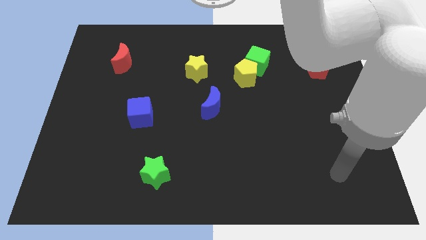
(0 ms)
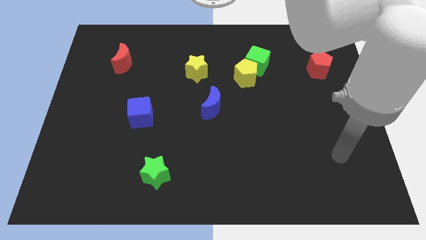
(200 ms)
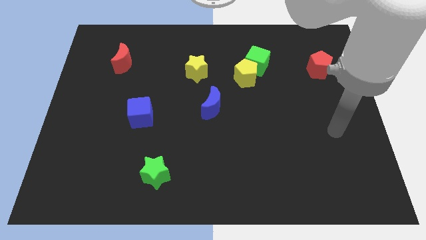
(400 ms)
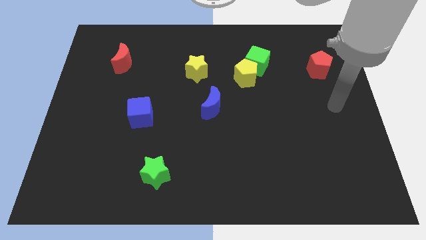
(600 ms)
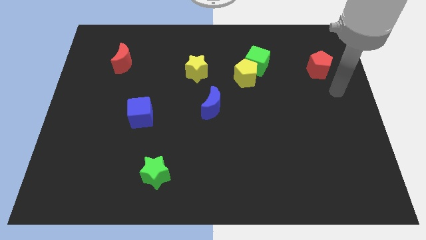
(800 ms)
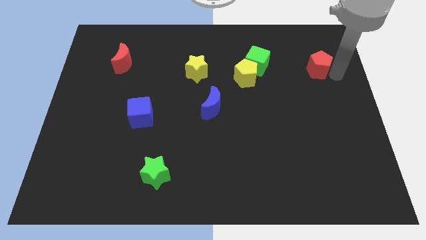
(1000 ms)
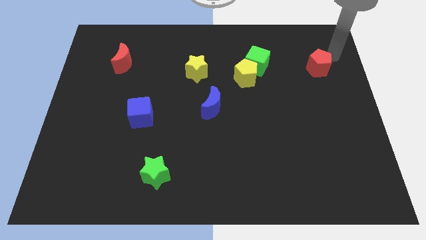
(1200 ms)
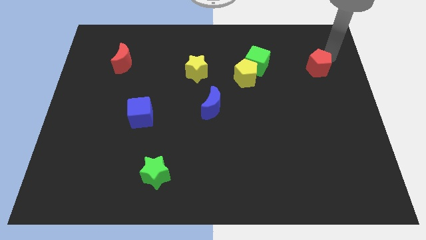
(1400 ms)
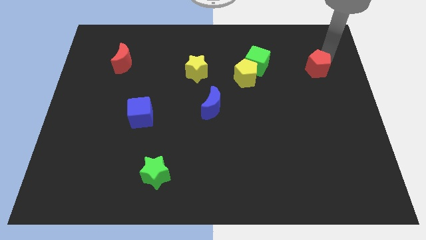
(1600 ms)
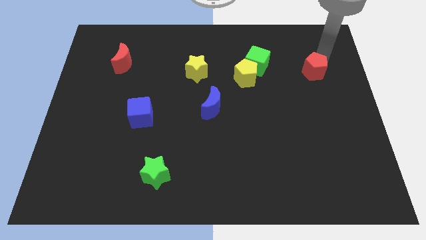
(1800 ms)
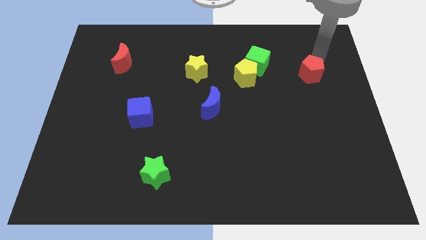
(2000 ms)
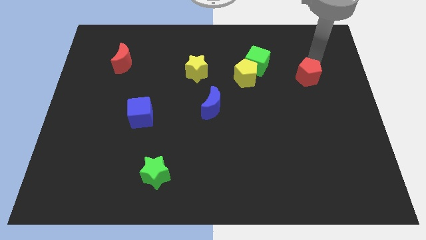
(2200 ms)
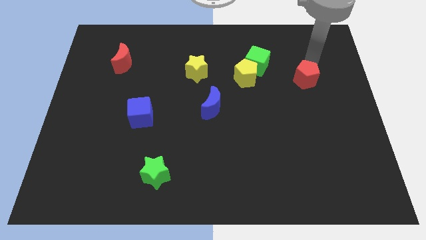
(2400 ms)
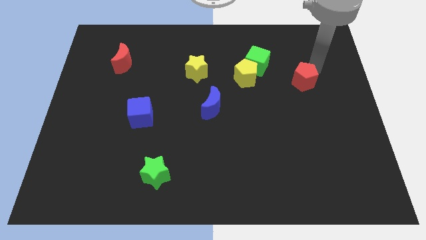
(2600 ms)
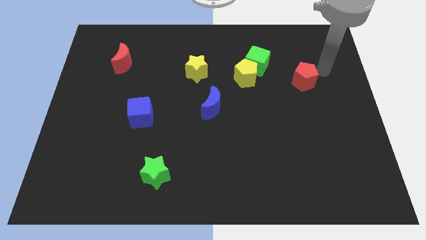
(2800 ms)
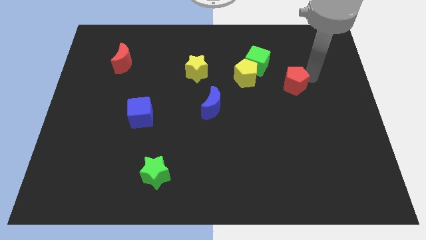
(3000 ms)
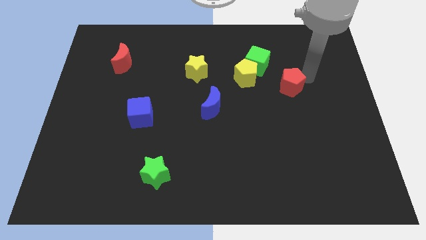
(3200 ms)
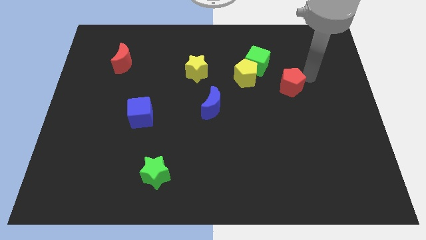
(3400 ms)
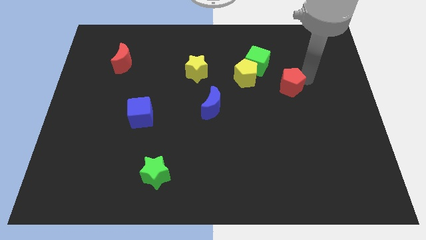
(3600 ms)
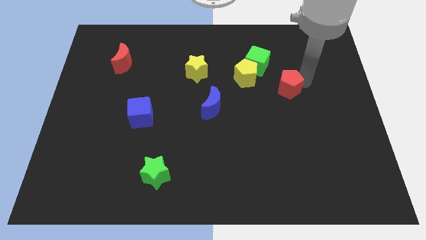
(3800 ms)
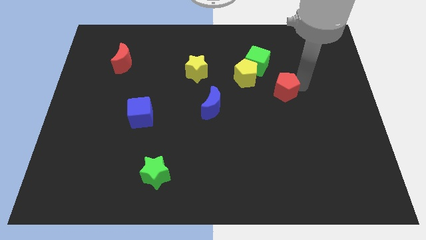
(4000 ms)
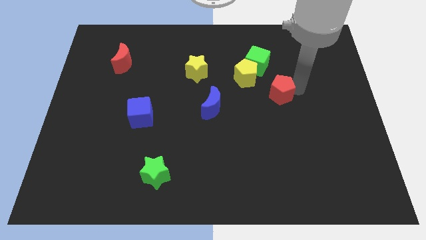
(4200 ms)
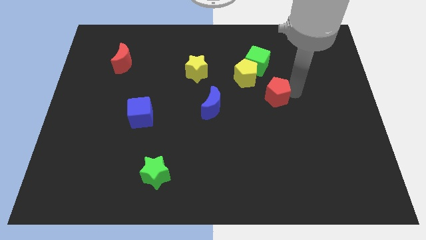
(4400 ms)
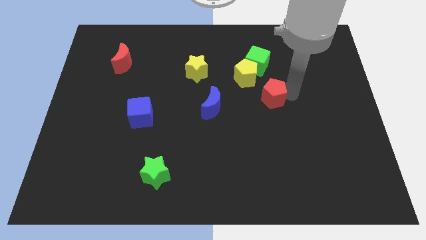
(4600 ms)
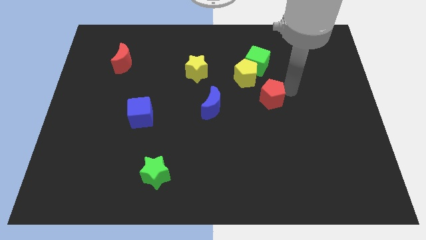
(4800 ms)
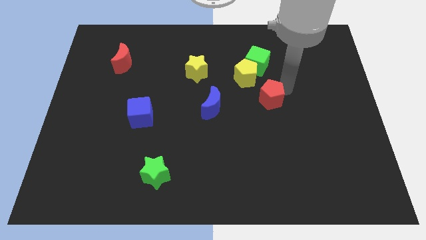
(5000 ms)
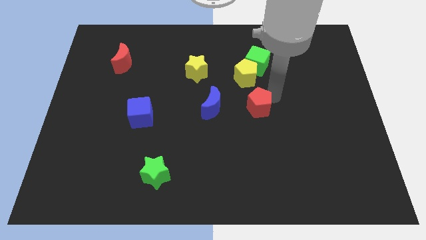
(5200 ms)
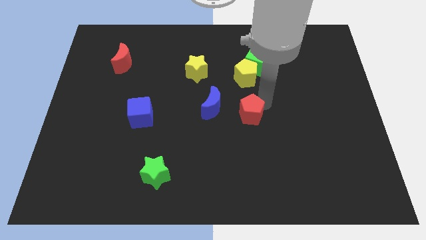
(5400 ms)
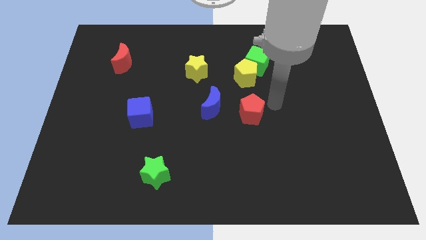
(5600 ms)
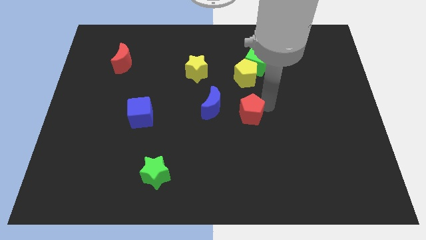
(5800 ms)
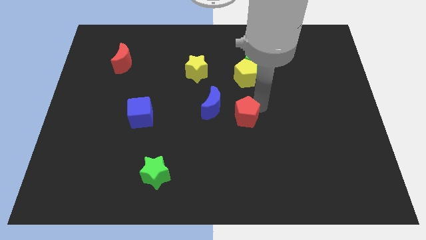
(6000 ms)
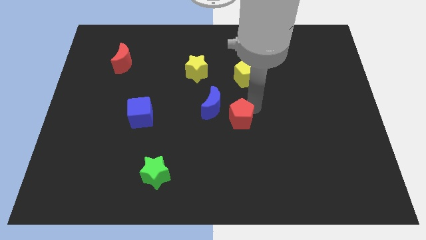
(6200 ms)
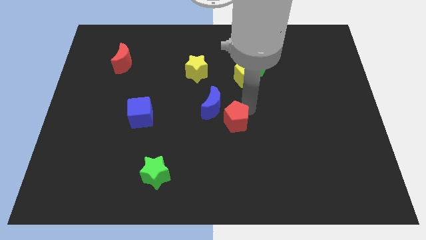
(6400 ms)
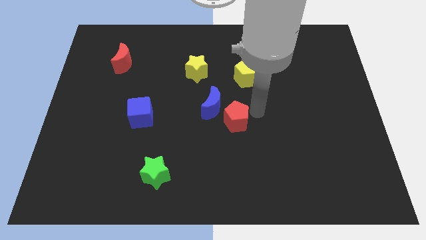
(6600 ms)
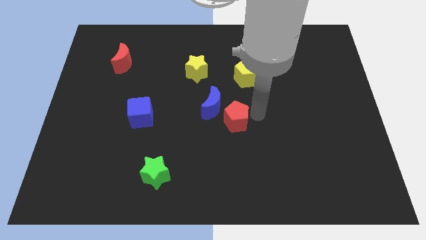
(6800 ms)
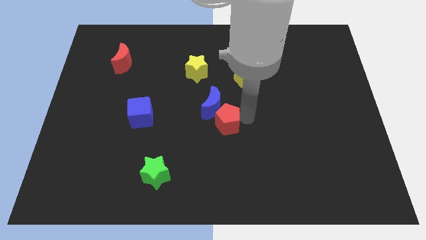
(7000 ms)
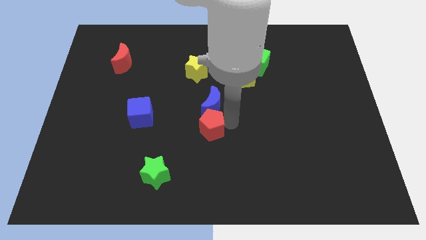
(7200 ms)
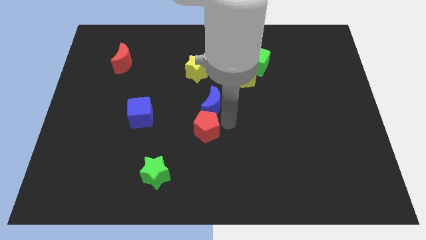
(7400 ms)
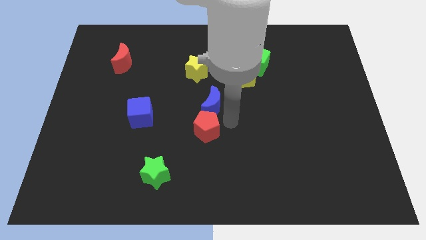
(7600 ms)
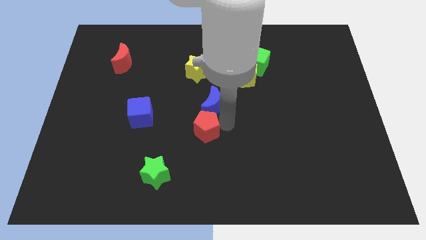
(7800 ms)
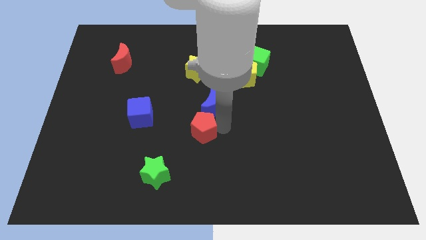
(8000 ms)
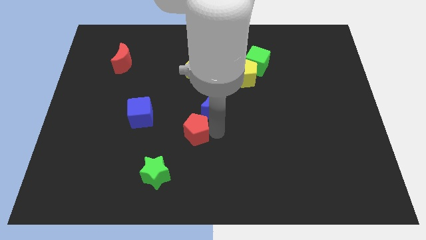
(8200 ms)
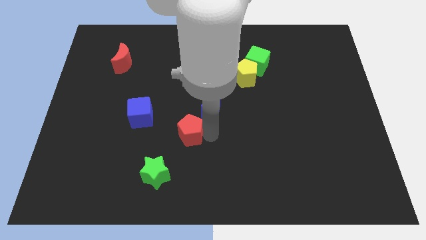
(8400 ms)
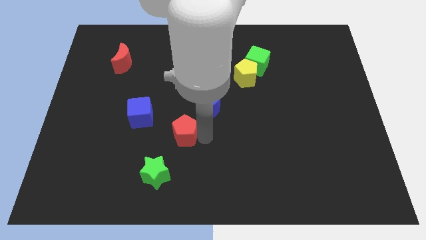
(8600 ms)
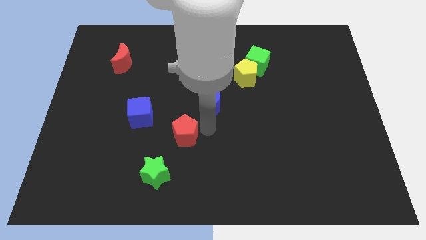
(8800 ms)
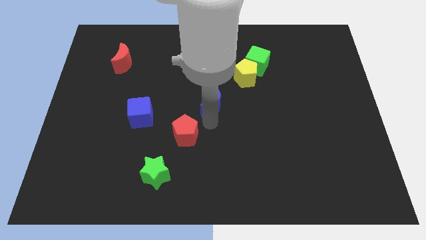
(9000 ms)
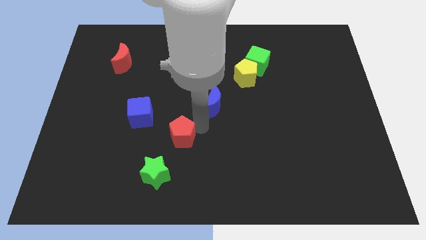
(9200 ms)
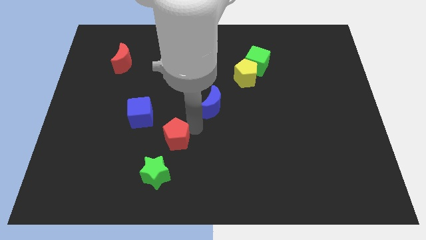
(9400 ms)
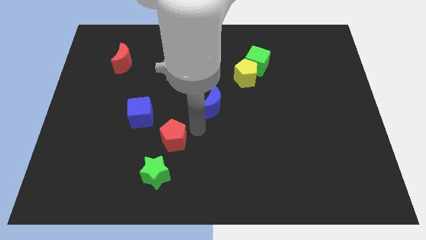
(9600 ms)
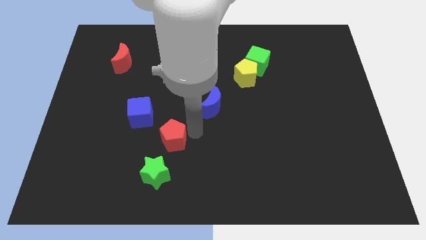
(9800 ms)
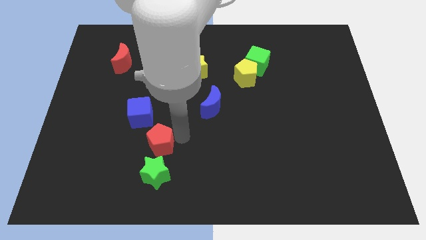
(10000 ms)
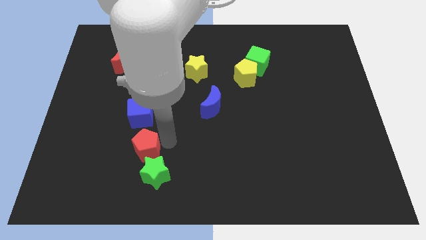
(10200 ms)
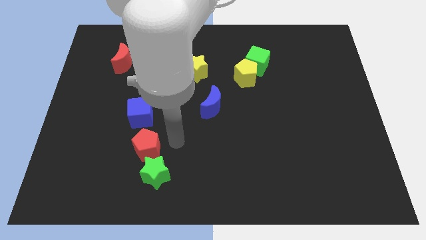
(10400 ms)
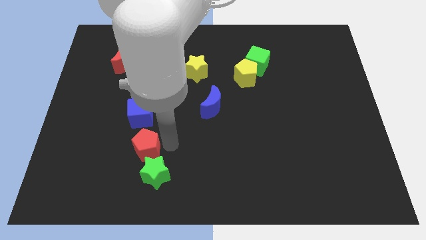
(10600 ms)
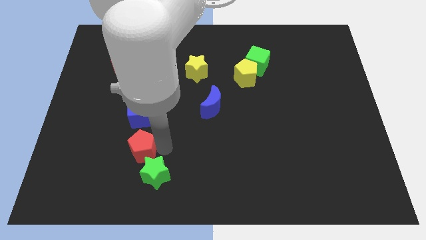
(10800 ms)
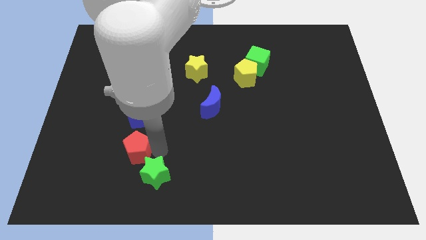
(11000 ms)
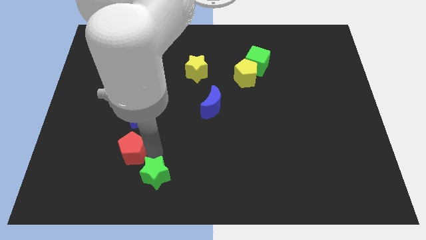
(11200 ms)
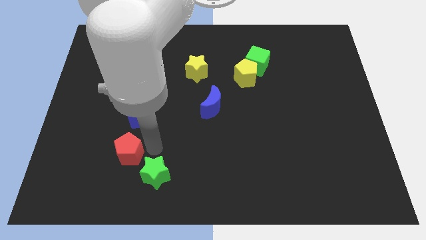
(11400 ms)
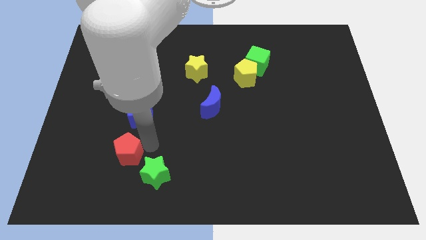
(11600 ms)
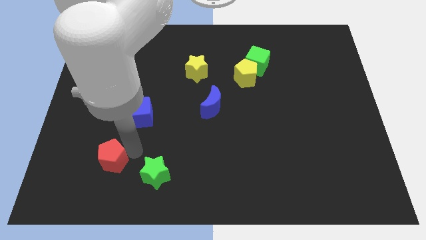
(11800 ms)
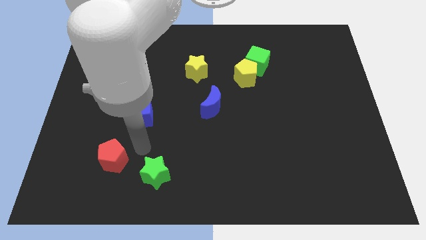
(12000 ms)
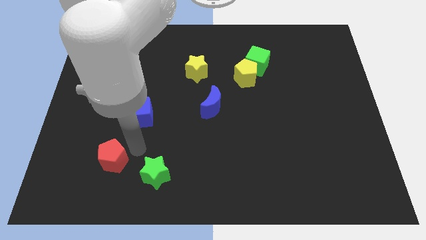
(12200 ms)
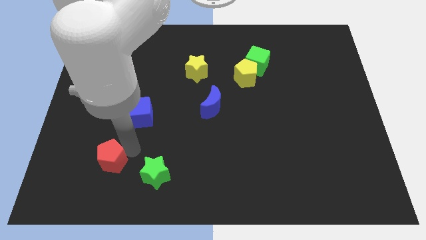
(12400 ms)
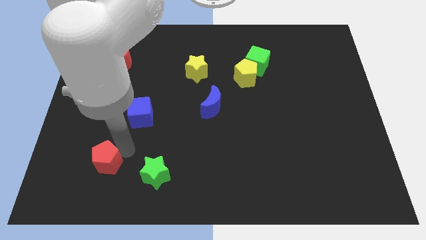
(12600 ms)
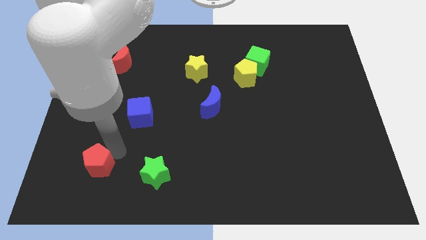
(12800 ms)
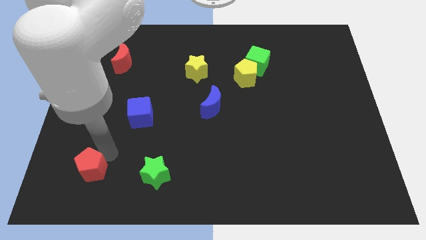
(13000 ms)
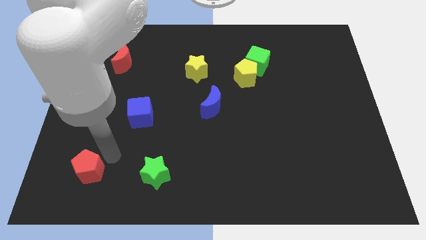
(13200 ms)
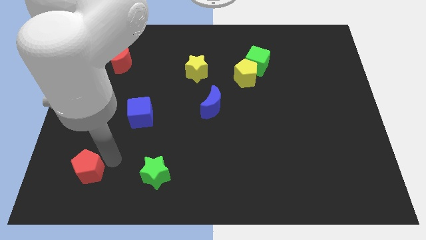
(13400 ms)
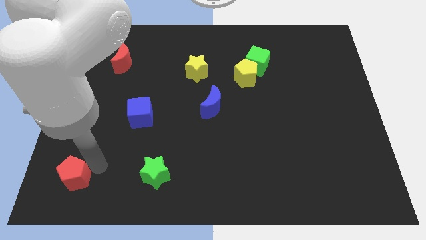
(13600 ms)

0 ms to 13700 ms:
put the red pentagon to the bottom left of the board
